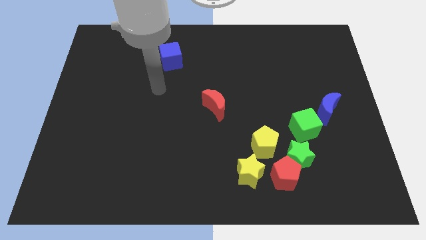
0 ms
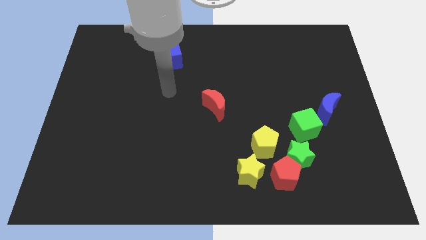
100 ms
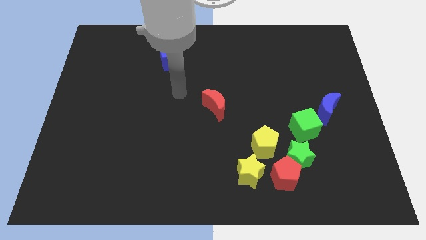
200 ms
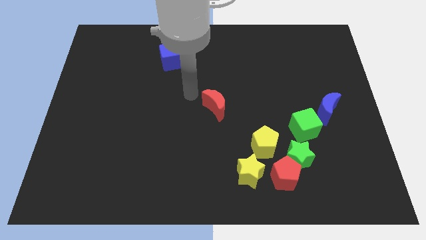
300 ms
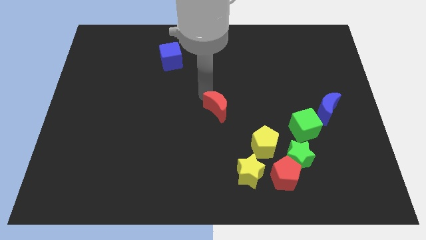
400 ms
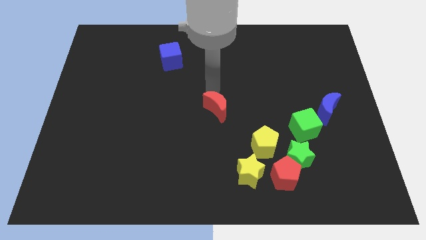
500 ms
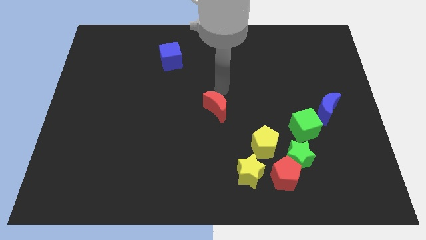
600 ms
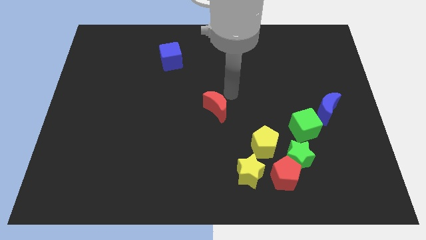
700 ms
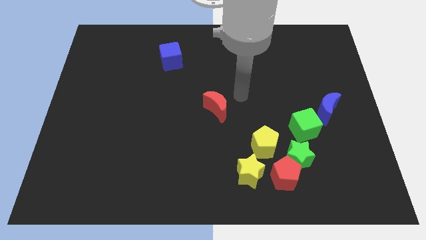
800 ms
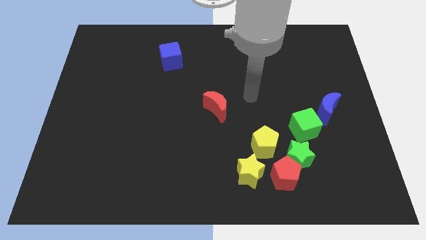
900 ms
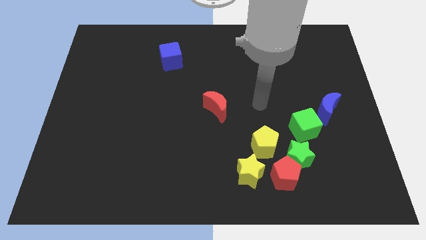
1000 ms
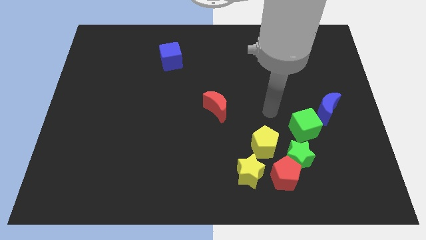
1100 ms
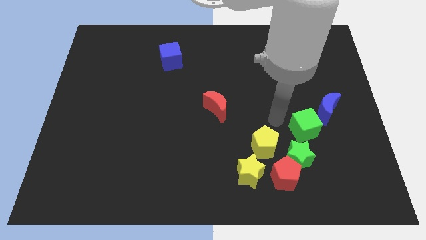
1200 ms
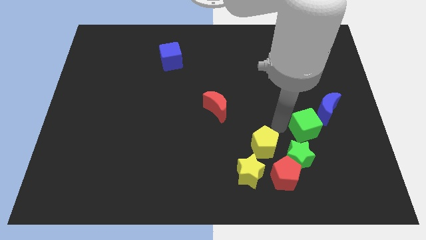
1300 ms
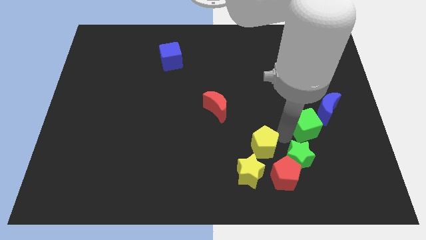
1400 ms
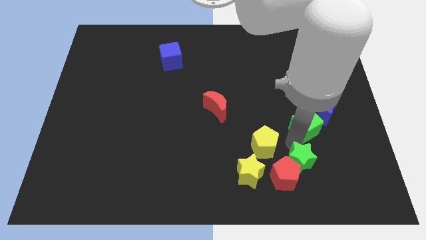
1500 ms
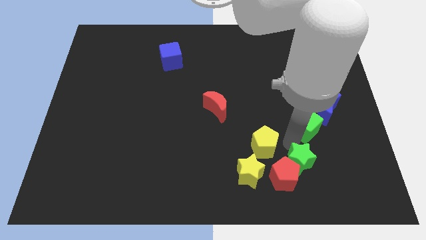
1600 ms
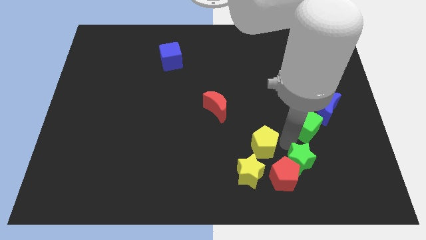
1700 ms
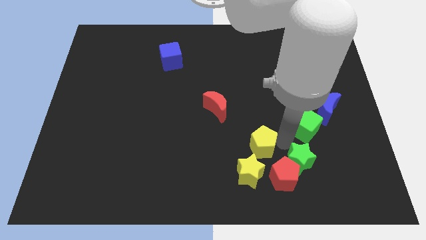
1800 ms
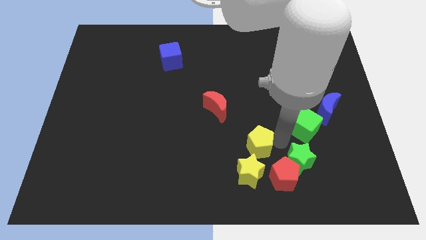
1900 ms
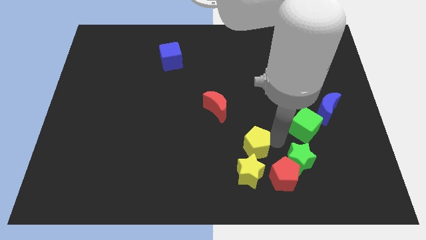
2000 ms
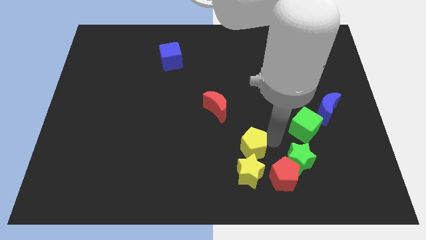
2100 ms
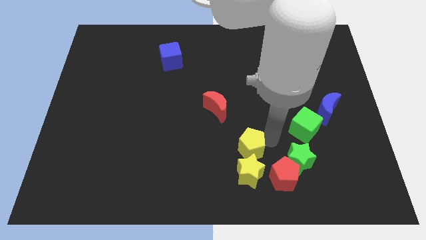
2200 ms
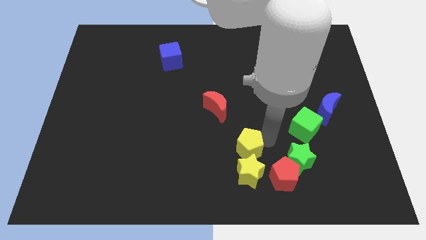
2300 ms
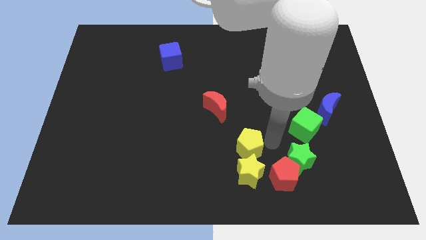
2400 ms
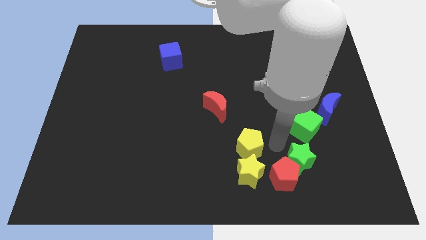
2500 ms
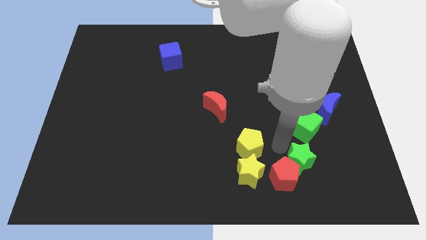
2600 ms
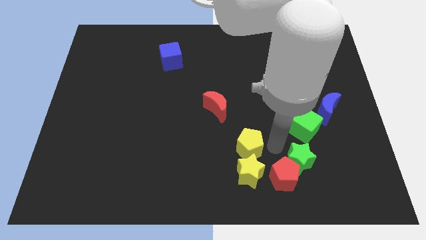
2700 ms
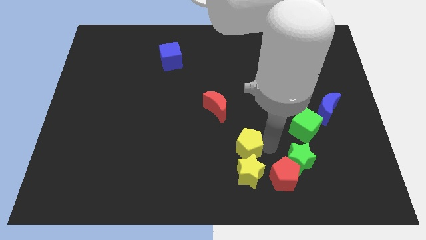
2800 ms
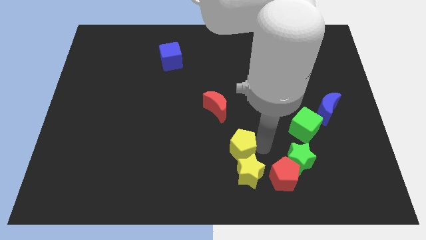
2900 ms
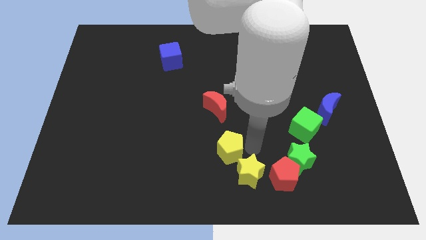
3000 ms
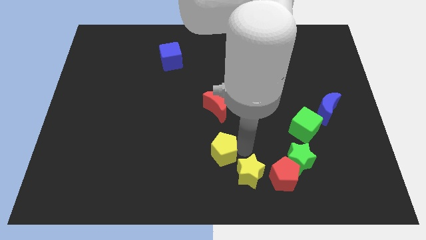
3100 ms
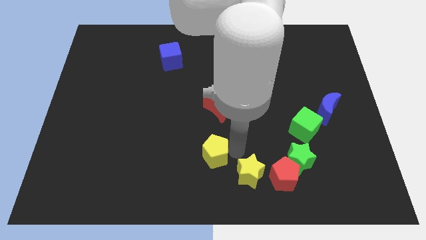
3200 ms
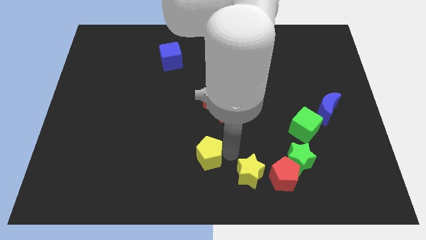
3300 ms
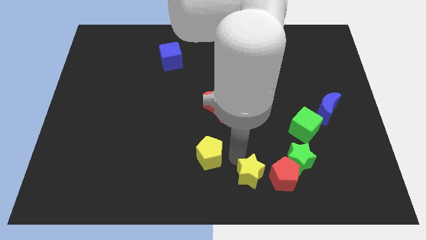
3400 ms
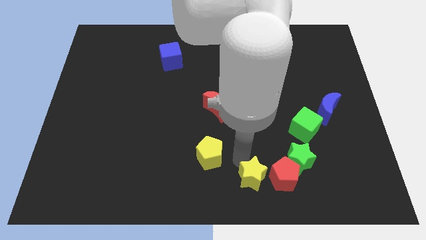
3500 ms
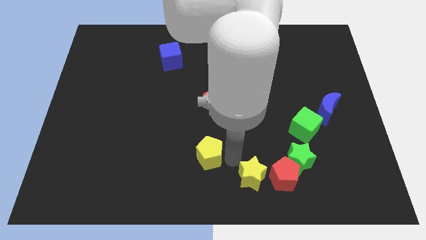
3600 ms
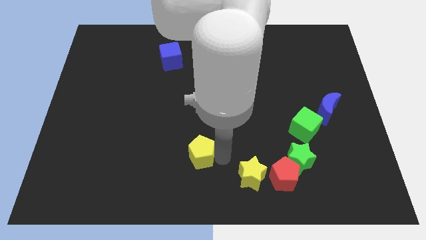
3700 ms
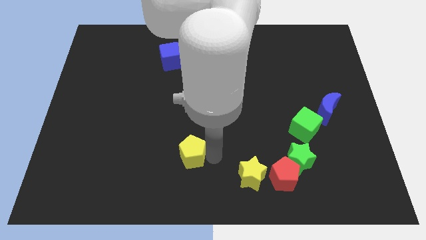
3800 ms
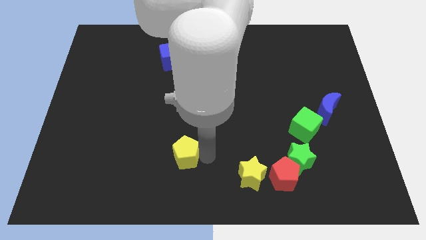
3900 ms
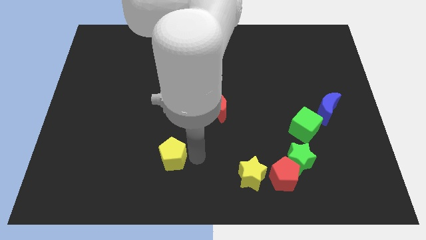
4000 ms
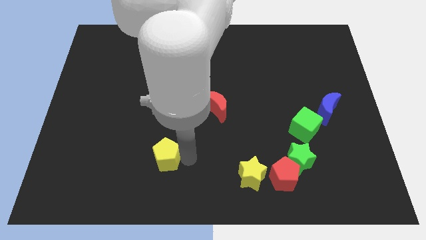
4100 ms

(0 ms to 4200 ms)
slide the yellow pentagon to the left

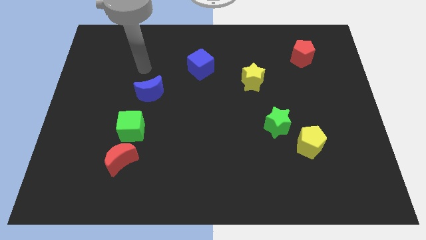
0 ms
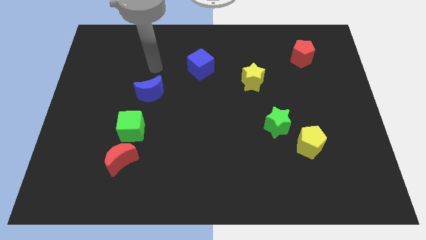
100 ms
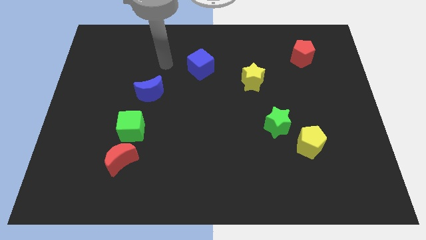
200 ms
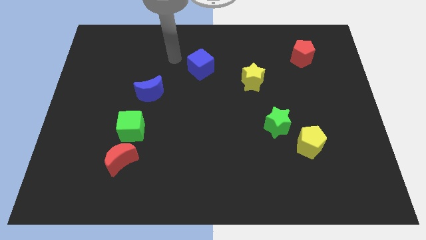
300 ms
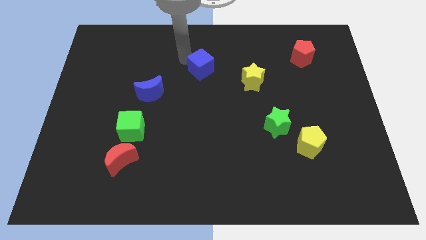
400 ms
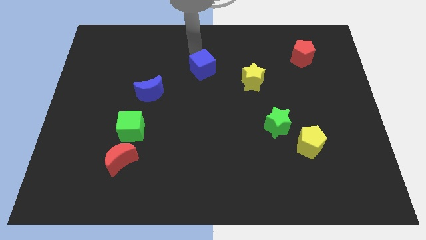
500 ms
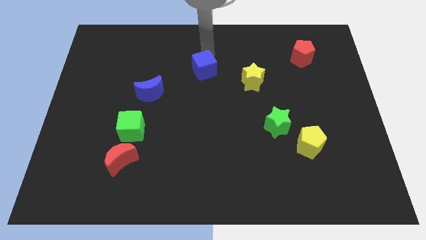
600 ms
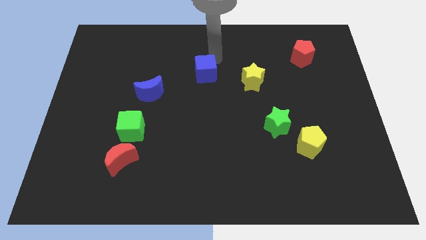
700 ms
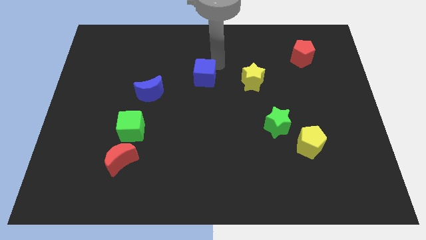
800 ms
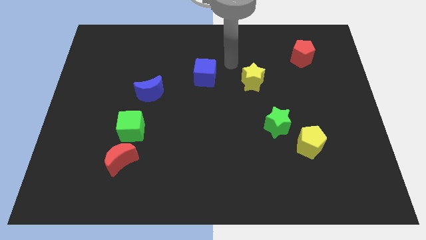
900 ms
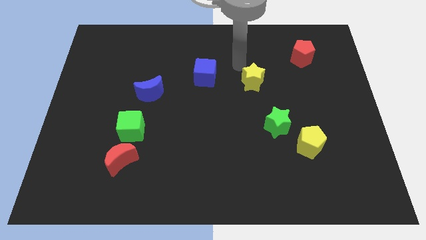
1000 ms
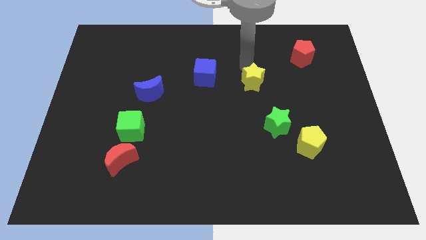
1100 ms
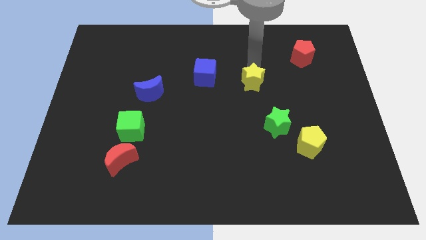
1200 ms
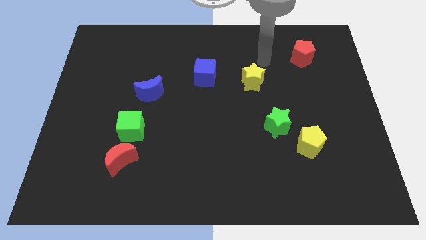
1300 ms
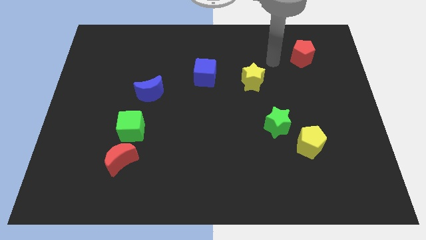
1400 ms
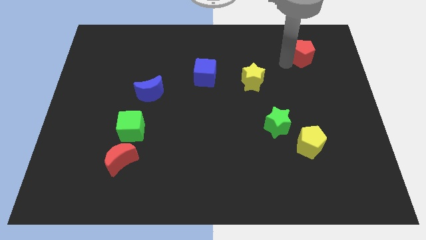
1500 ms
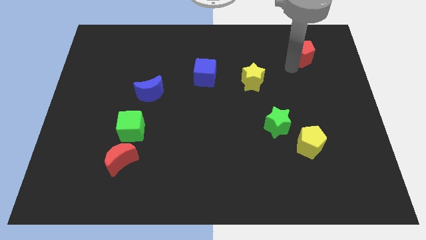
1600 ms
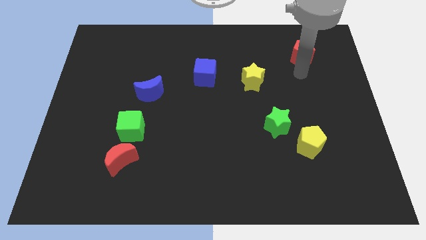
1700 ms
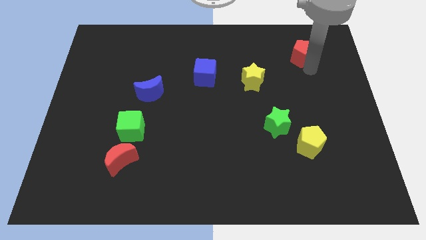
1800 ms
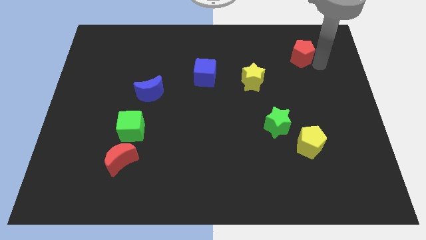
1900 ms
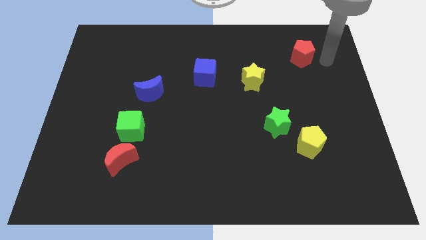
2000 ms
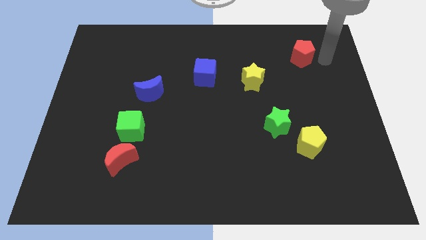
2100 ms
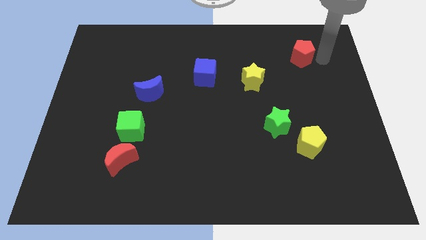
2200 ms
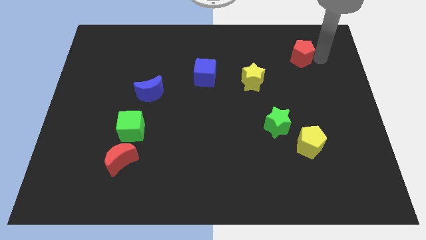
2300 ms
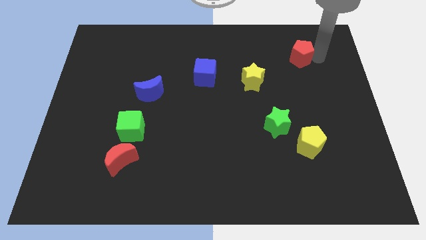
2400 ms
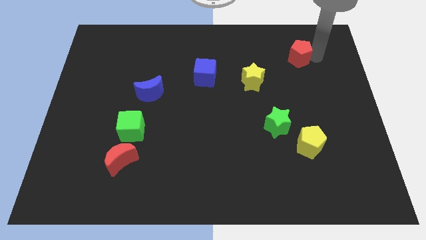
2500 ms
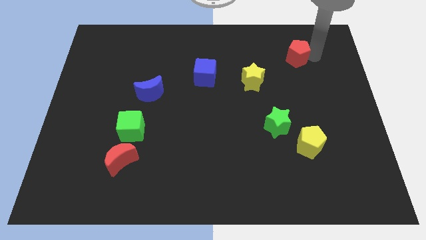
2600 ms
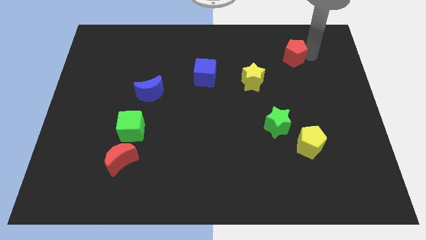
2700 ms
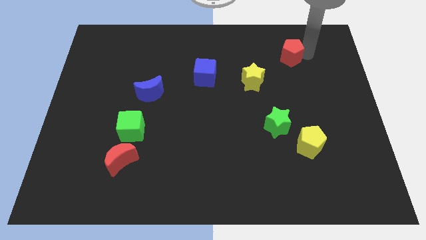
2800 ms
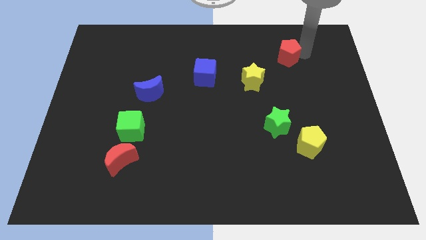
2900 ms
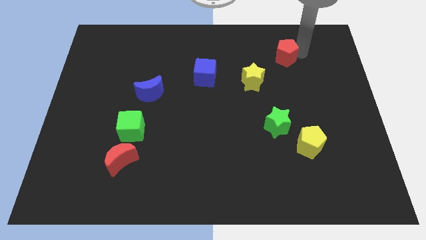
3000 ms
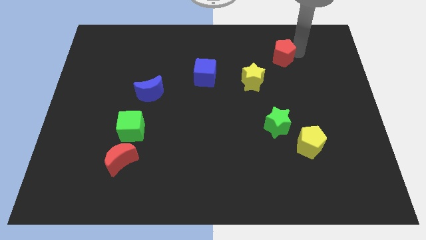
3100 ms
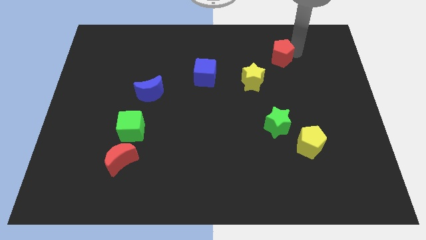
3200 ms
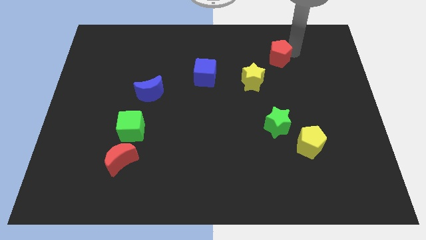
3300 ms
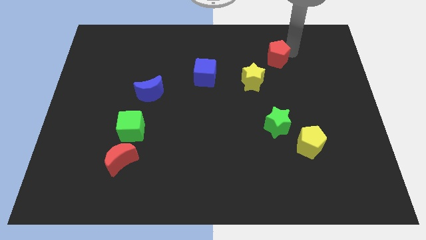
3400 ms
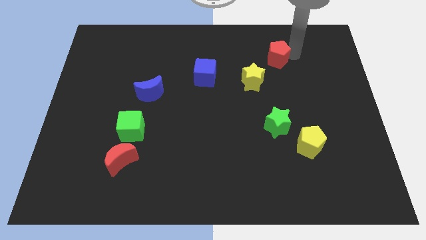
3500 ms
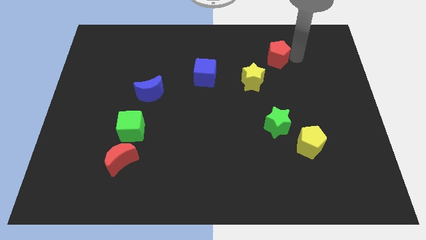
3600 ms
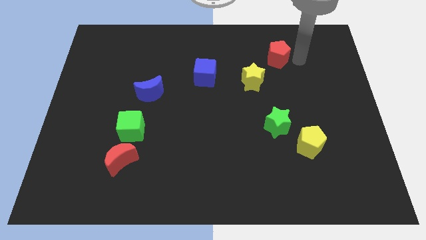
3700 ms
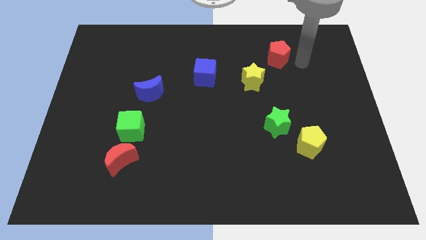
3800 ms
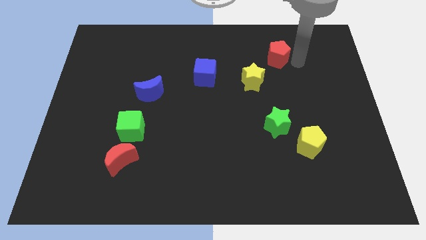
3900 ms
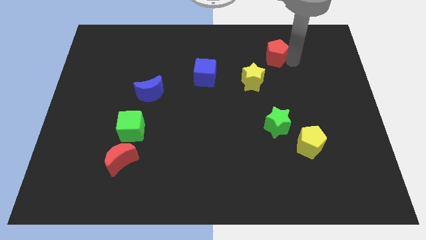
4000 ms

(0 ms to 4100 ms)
slide the red pentagon slightly to the left
